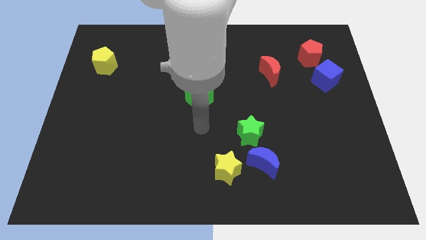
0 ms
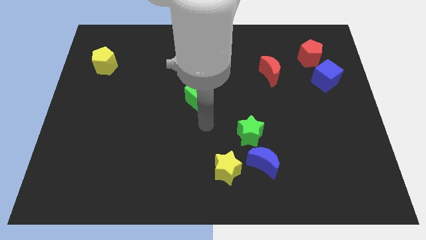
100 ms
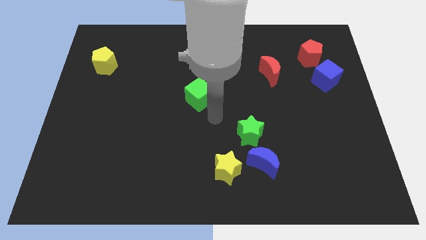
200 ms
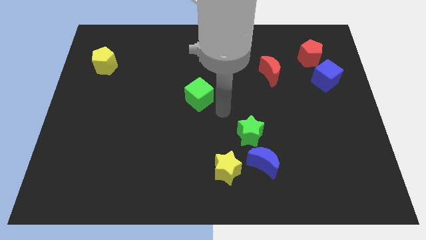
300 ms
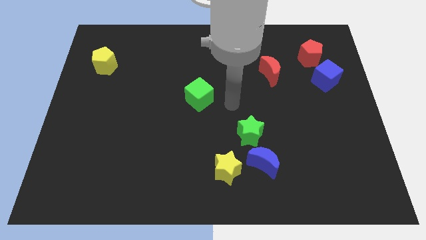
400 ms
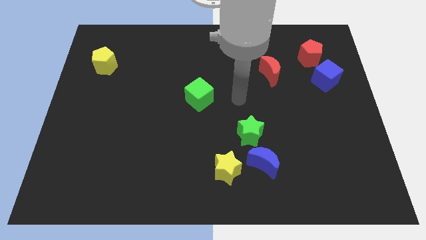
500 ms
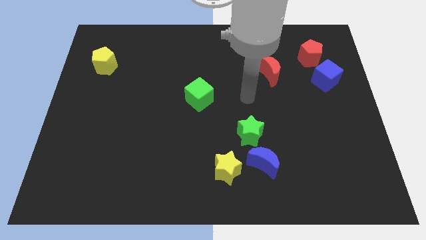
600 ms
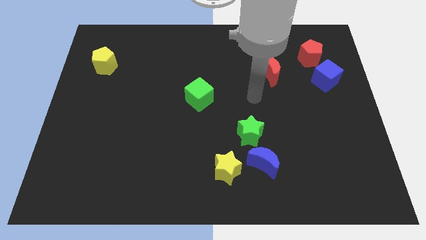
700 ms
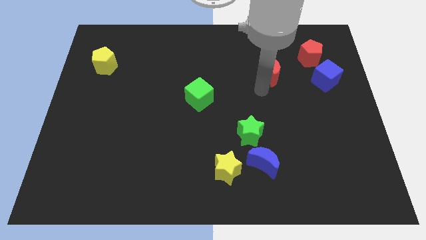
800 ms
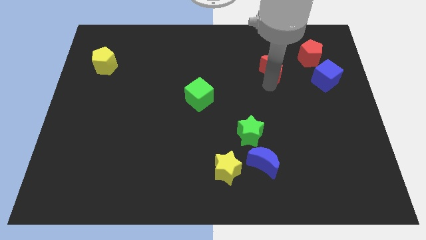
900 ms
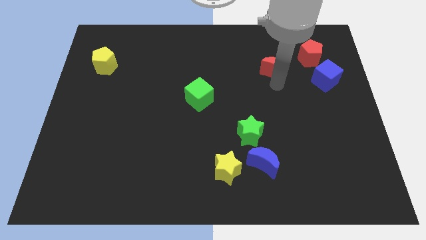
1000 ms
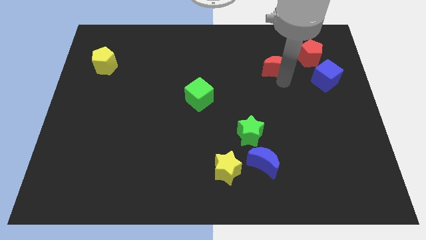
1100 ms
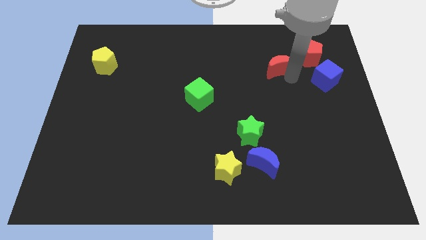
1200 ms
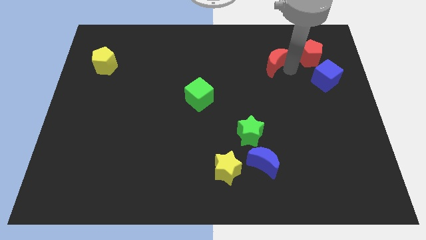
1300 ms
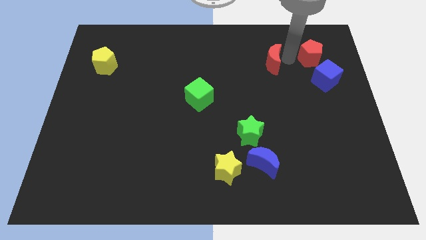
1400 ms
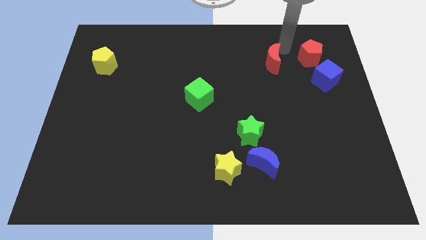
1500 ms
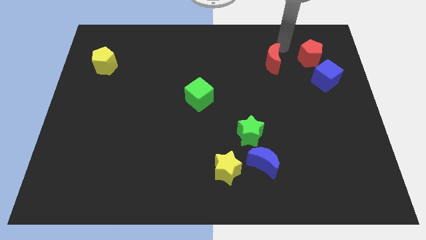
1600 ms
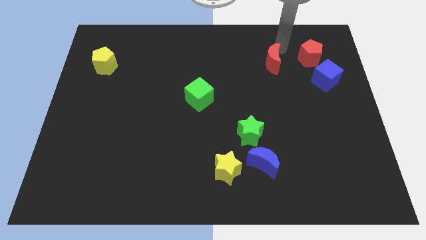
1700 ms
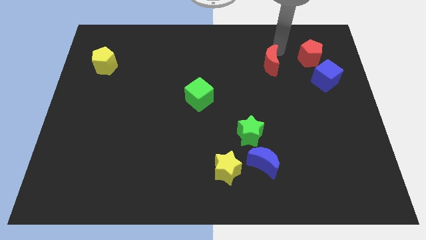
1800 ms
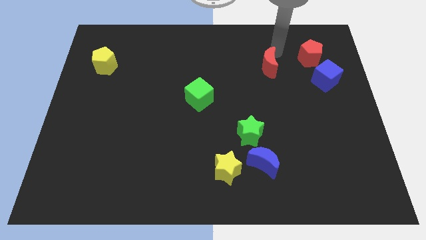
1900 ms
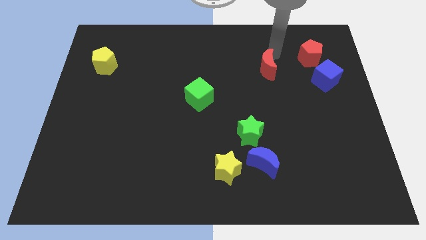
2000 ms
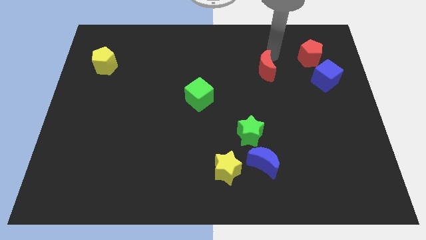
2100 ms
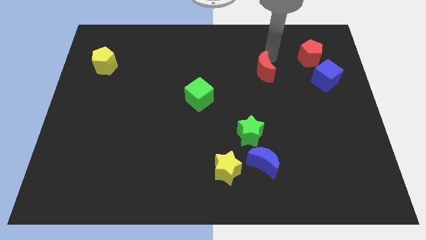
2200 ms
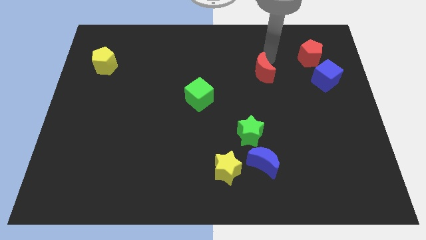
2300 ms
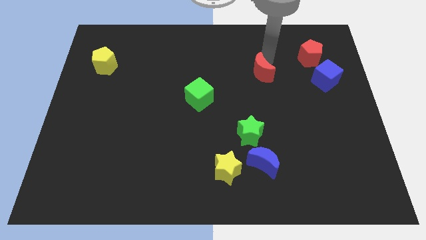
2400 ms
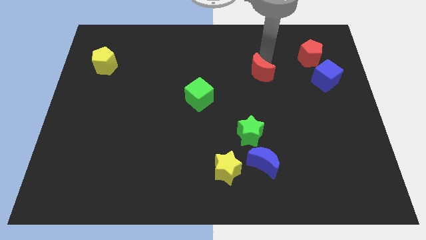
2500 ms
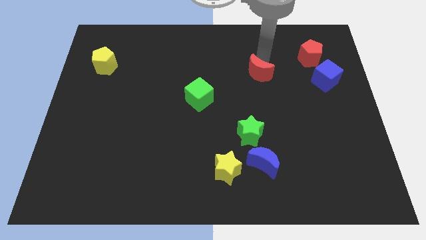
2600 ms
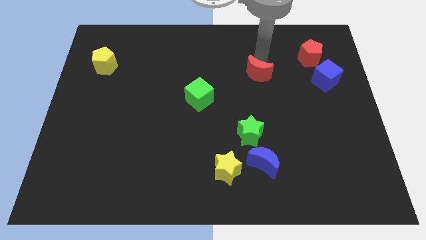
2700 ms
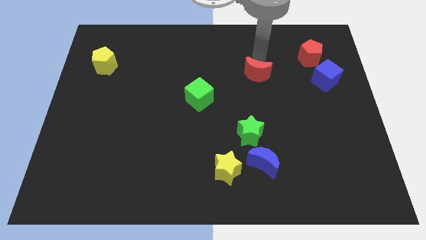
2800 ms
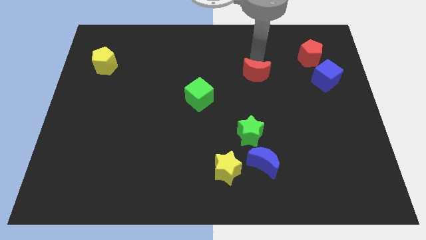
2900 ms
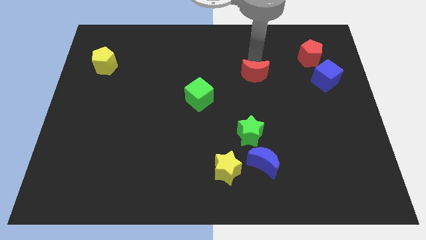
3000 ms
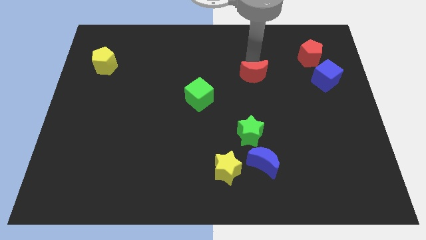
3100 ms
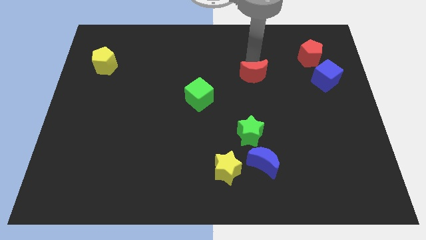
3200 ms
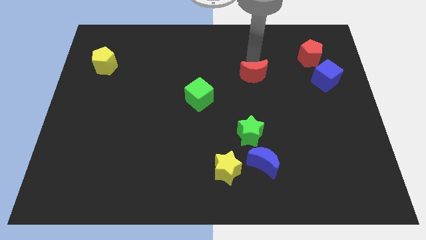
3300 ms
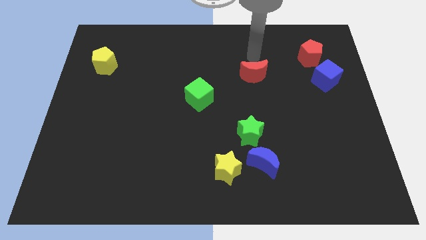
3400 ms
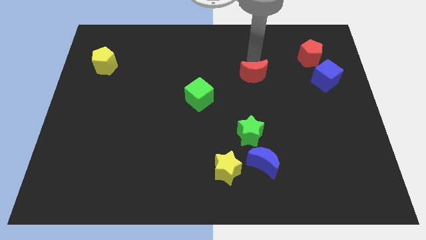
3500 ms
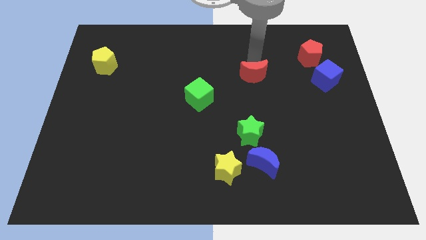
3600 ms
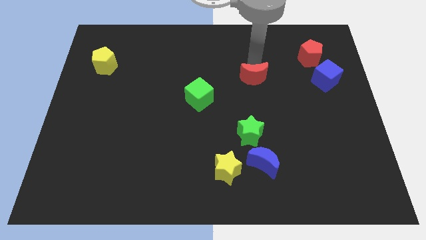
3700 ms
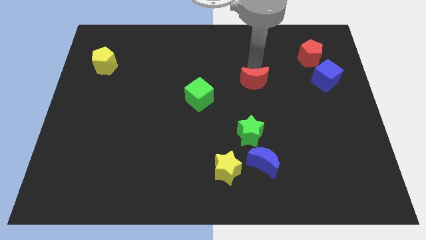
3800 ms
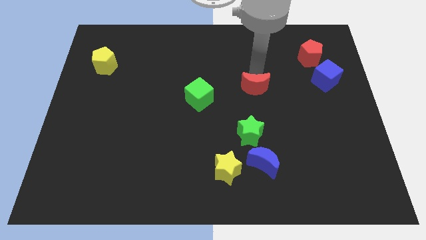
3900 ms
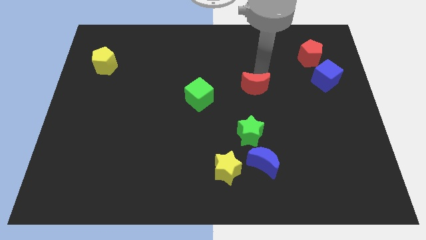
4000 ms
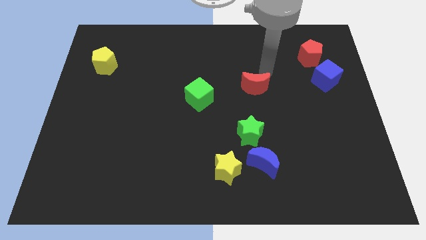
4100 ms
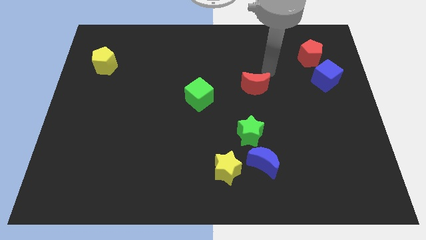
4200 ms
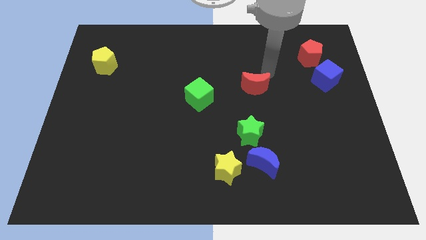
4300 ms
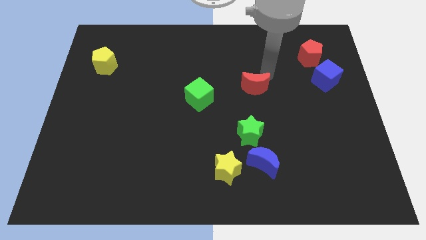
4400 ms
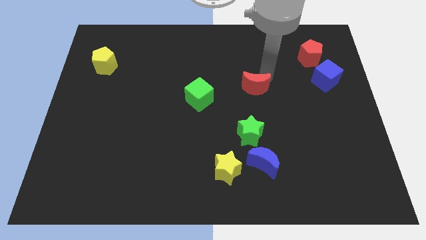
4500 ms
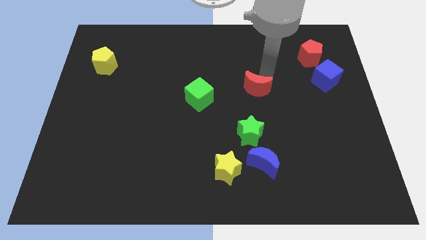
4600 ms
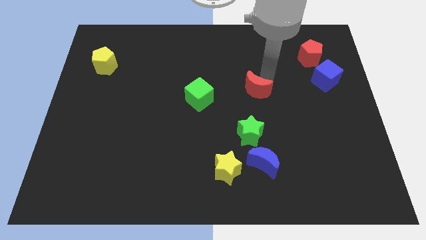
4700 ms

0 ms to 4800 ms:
move the red moon down and then to the left a little

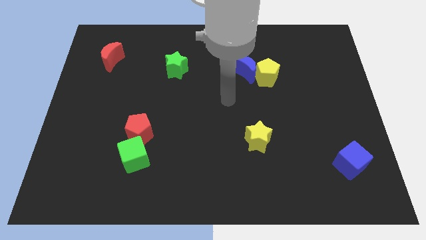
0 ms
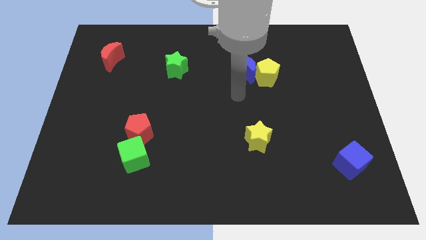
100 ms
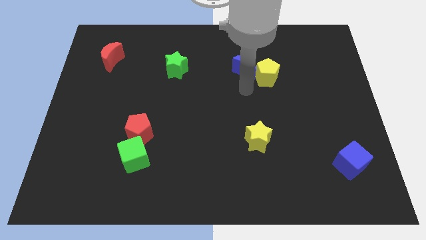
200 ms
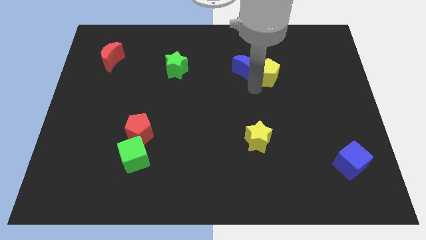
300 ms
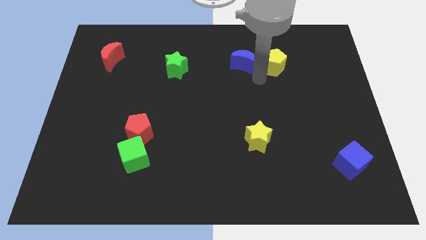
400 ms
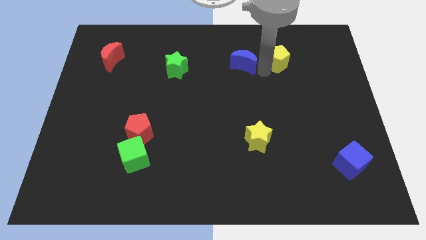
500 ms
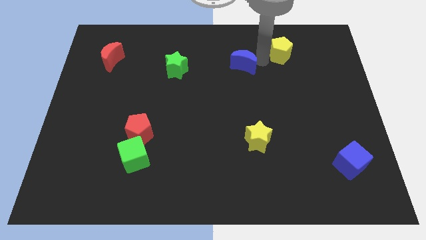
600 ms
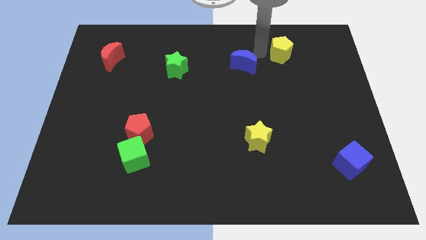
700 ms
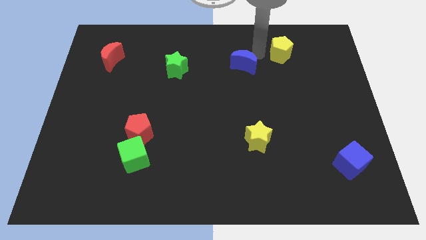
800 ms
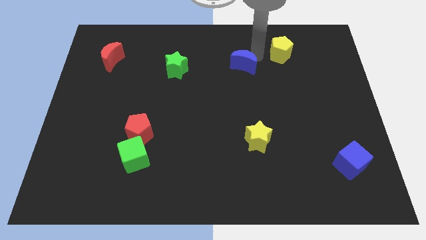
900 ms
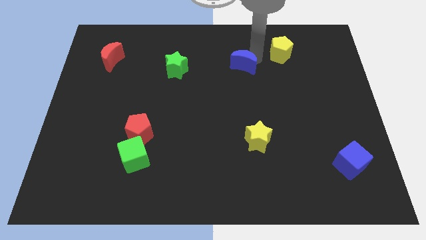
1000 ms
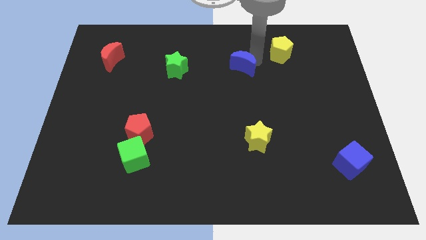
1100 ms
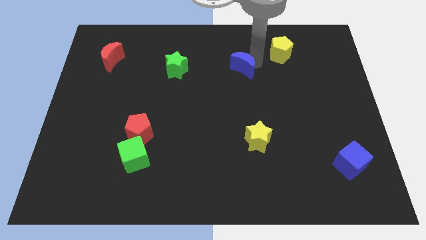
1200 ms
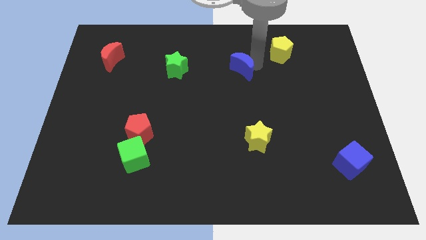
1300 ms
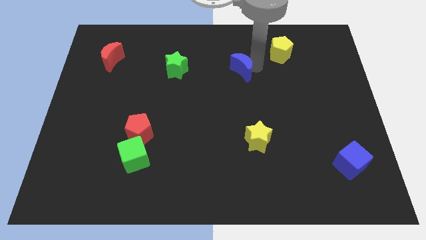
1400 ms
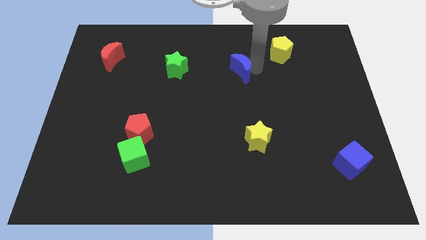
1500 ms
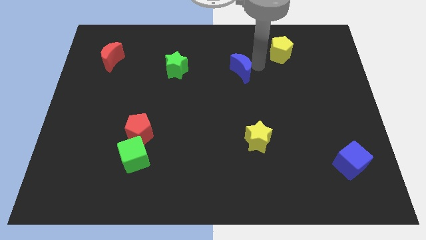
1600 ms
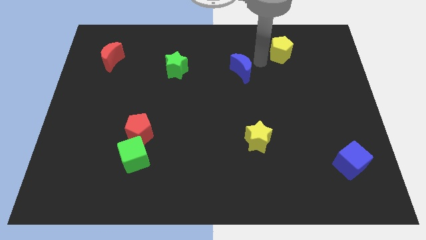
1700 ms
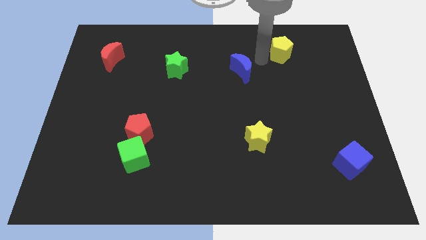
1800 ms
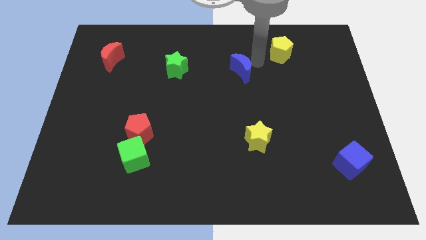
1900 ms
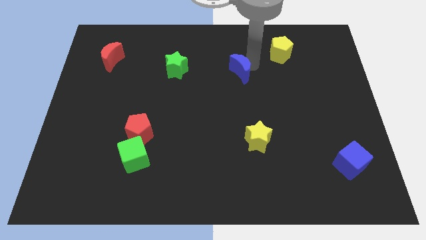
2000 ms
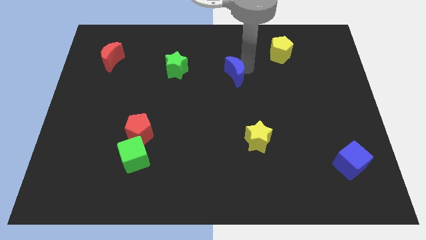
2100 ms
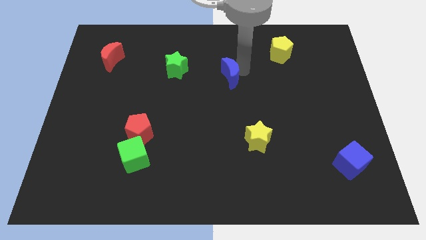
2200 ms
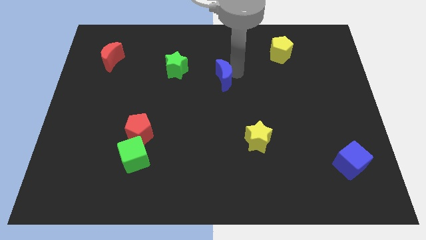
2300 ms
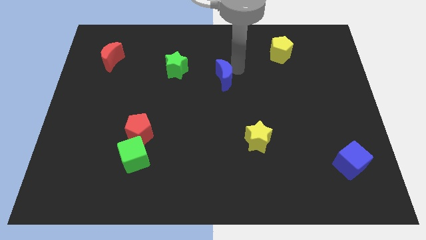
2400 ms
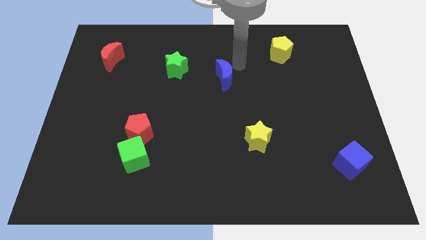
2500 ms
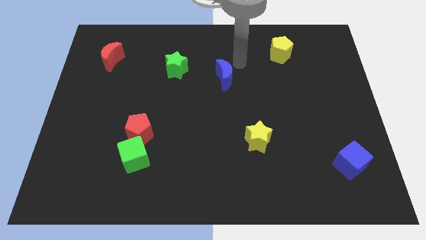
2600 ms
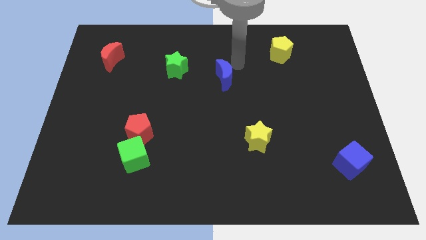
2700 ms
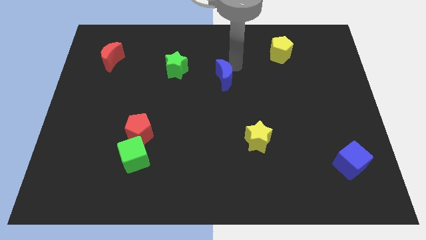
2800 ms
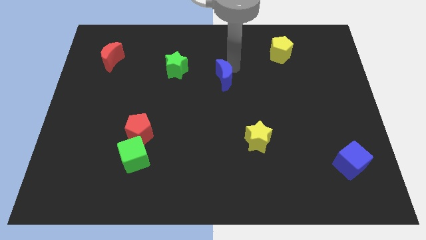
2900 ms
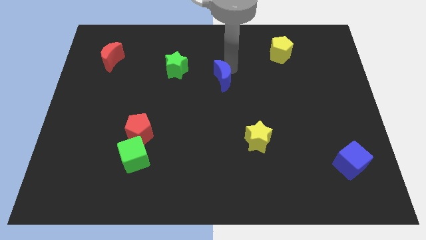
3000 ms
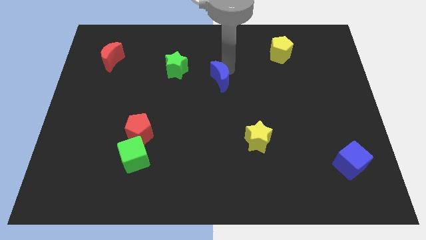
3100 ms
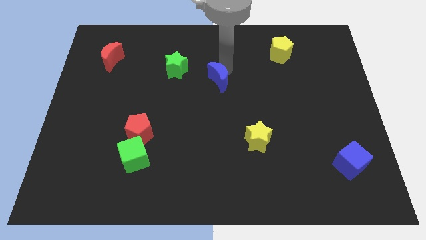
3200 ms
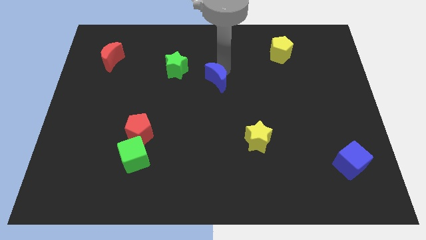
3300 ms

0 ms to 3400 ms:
slide the blue moon somewhat diagonally down and left

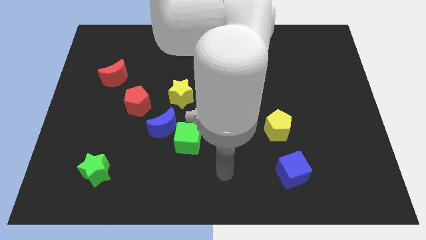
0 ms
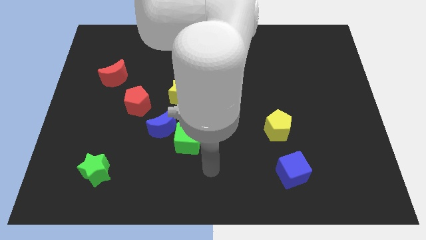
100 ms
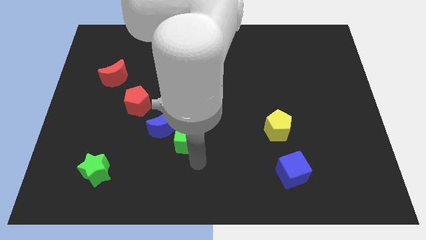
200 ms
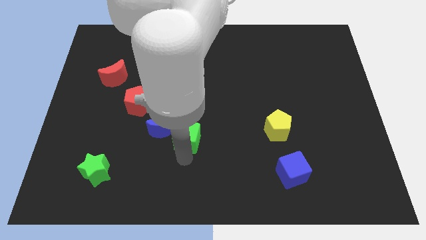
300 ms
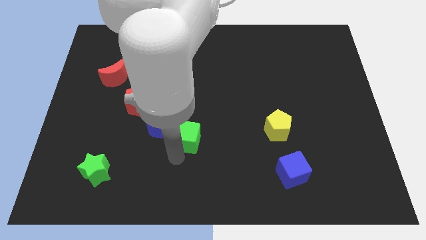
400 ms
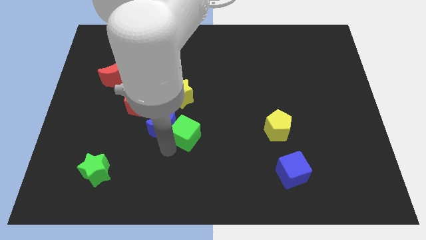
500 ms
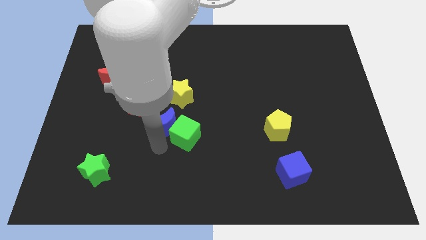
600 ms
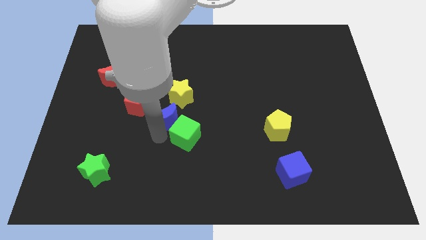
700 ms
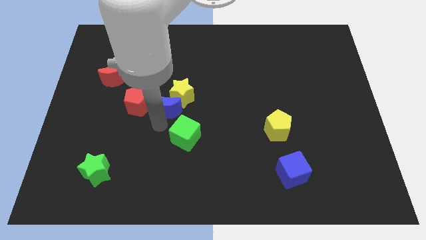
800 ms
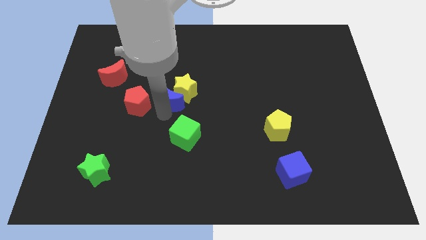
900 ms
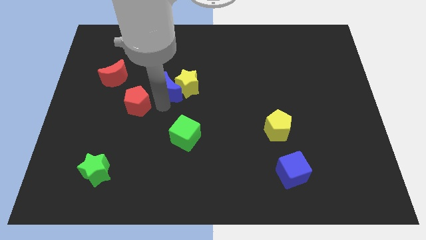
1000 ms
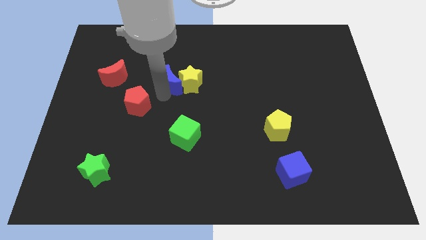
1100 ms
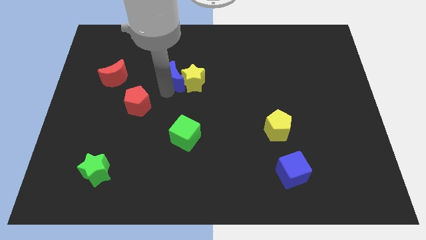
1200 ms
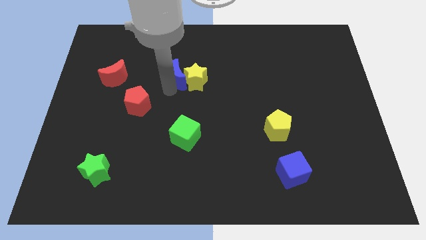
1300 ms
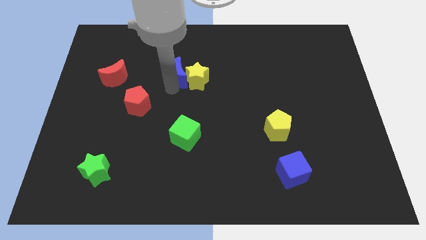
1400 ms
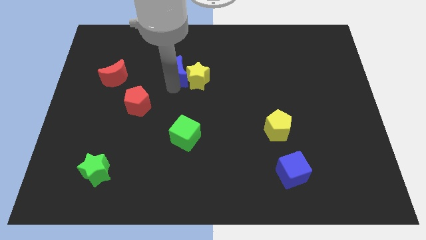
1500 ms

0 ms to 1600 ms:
slide the yellow star a little bit up and to the right diagonally
